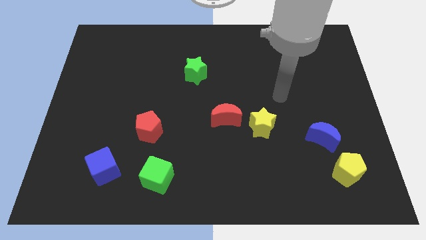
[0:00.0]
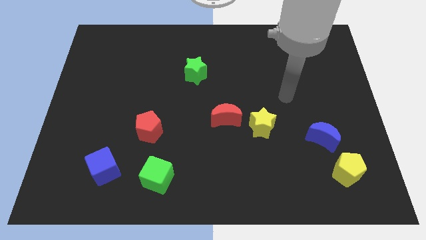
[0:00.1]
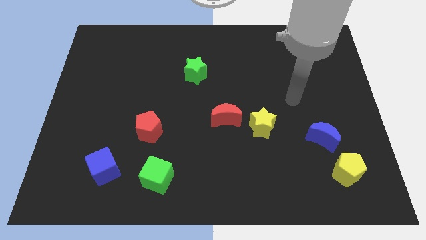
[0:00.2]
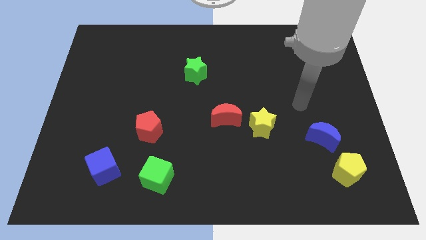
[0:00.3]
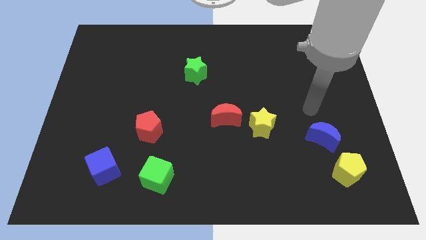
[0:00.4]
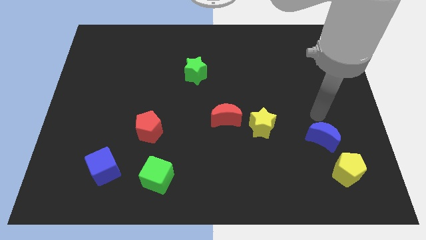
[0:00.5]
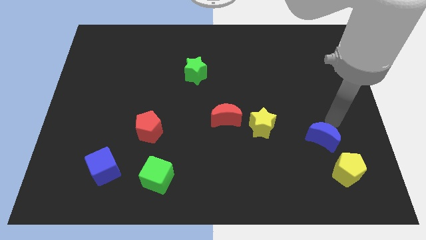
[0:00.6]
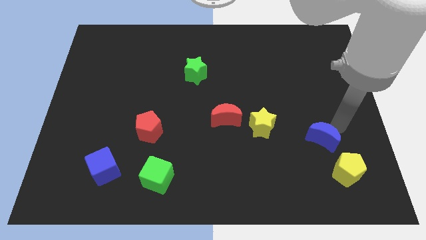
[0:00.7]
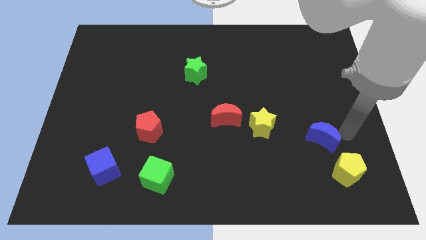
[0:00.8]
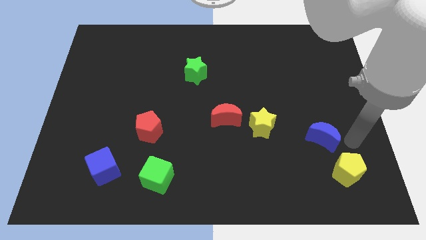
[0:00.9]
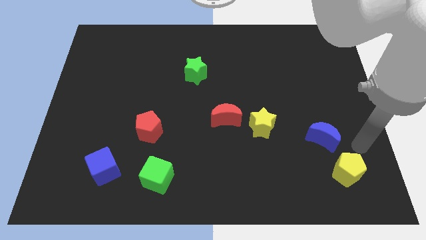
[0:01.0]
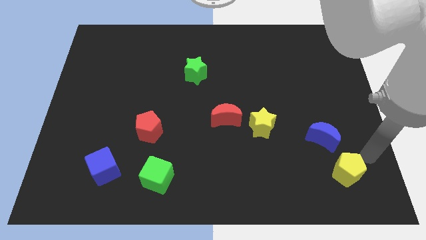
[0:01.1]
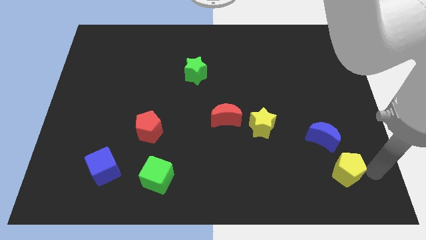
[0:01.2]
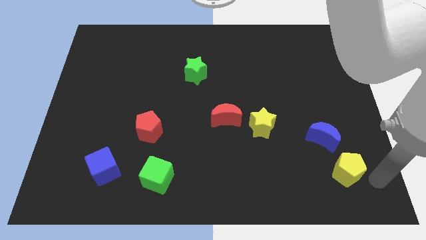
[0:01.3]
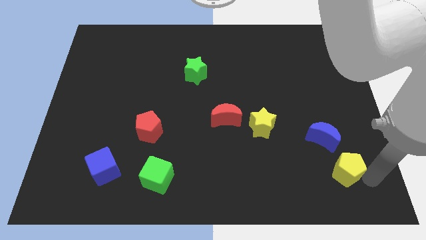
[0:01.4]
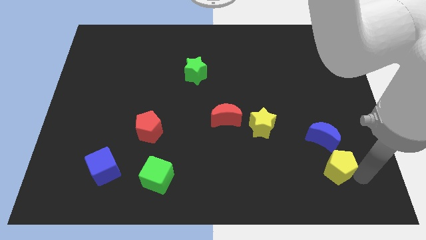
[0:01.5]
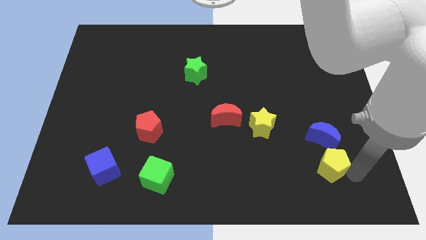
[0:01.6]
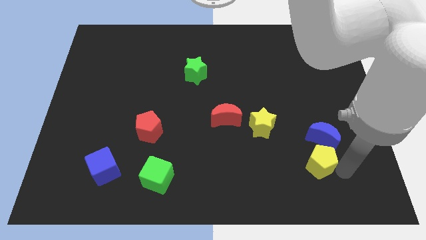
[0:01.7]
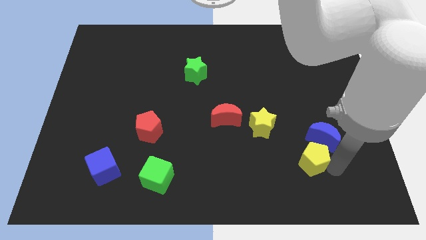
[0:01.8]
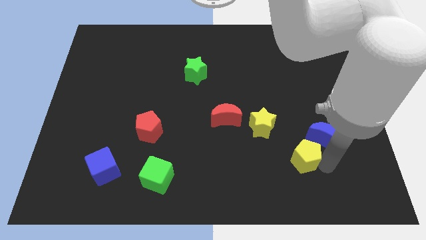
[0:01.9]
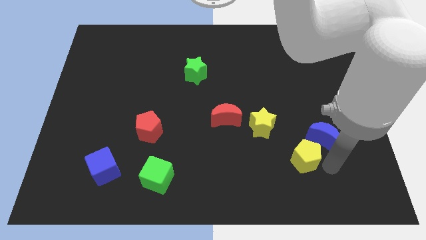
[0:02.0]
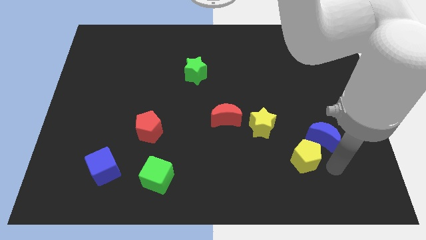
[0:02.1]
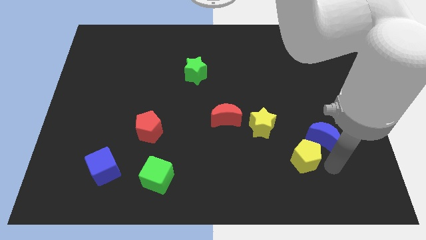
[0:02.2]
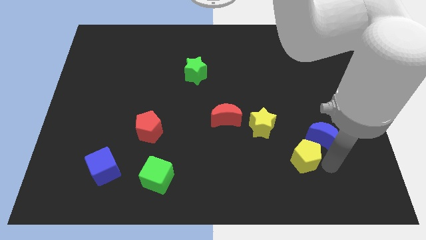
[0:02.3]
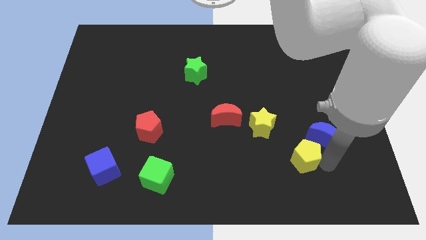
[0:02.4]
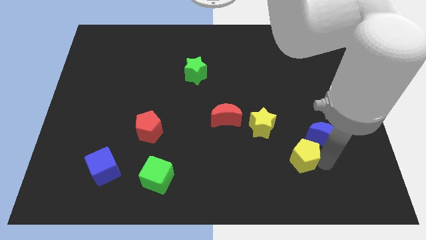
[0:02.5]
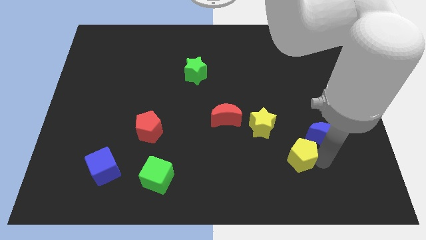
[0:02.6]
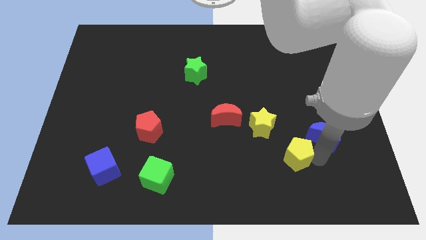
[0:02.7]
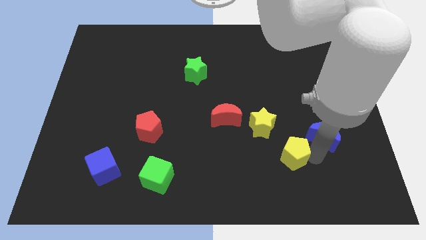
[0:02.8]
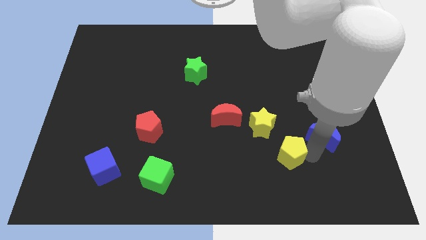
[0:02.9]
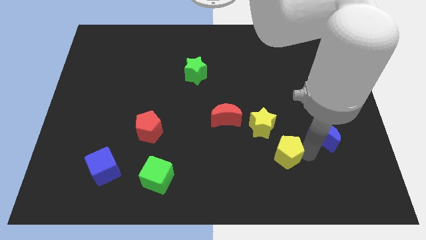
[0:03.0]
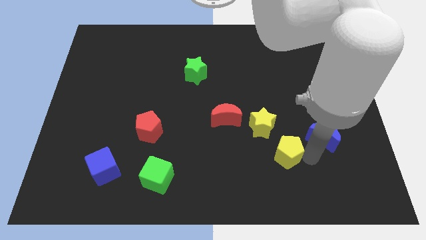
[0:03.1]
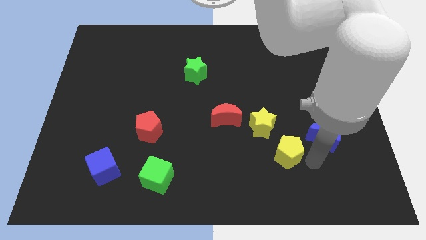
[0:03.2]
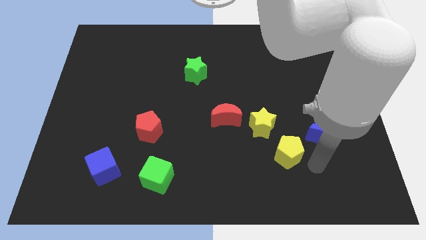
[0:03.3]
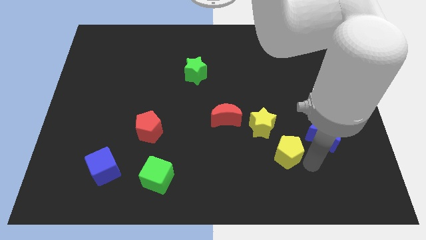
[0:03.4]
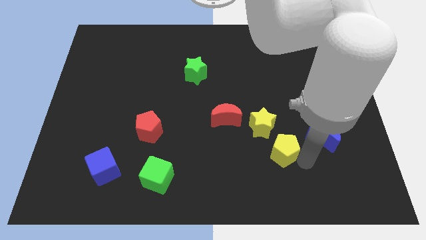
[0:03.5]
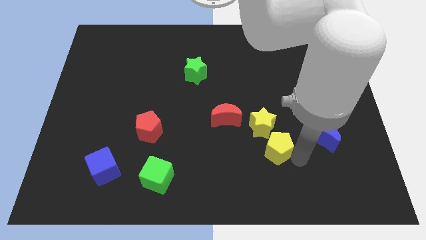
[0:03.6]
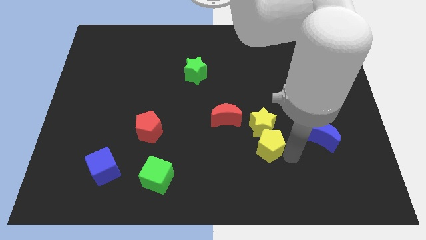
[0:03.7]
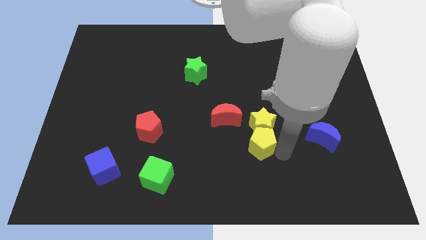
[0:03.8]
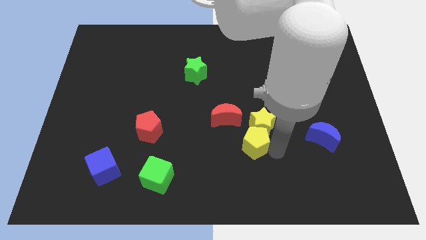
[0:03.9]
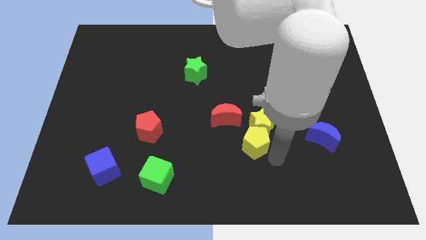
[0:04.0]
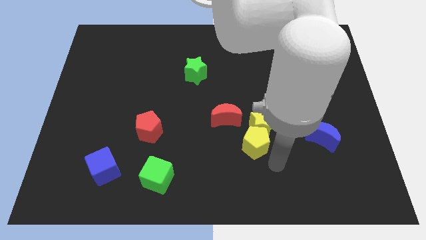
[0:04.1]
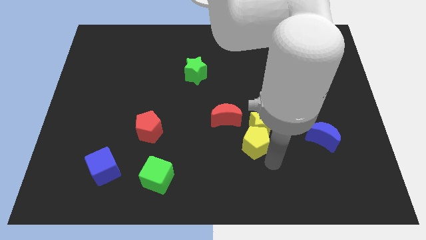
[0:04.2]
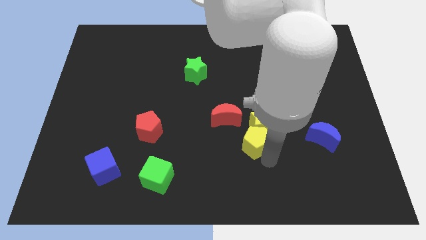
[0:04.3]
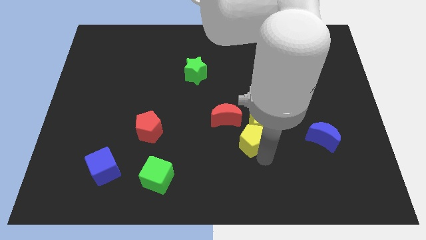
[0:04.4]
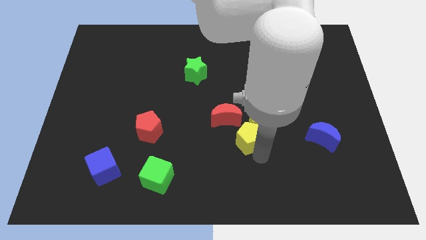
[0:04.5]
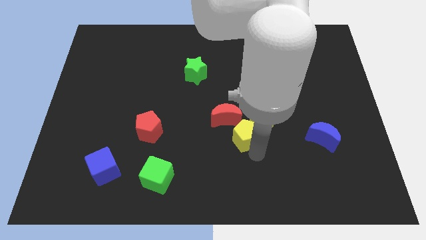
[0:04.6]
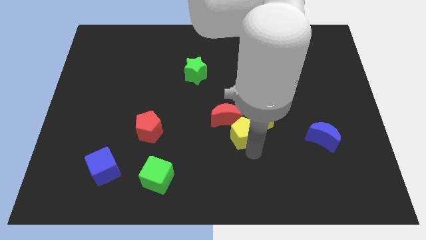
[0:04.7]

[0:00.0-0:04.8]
put the yellow pentagon close to the red moon

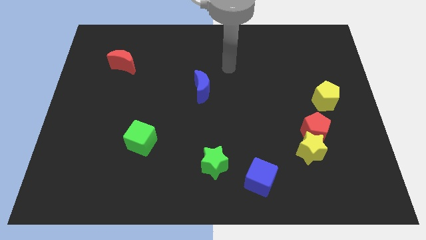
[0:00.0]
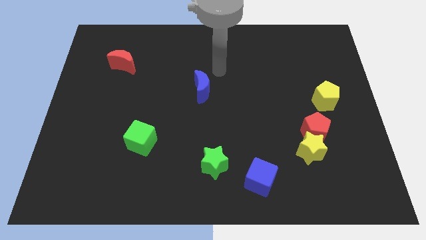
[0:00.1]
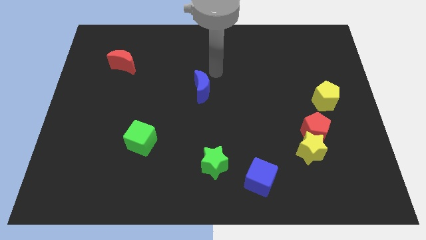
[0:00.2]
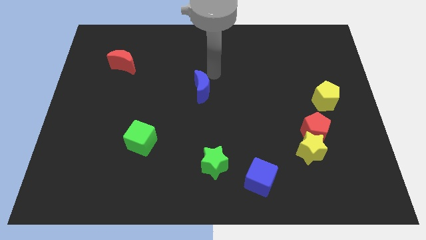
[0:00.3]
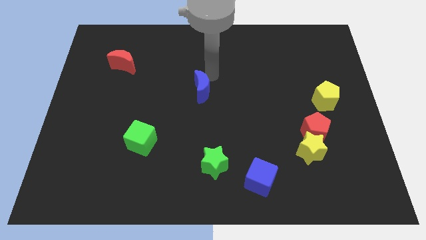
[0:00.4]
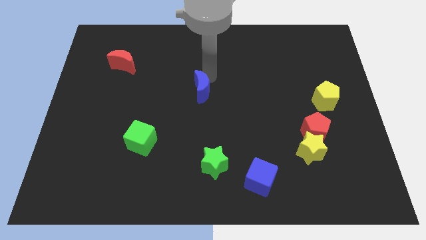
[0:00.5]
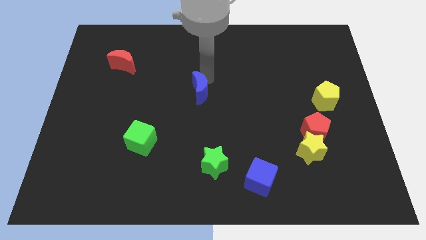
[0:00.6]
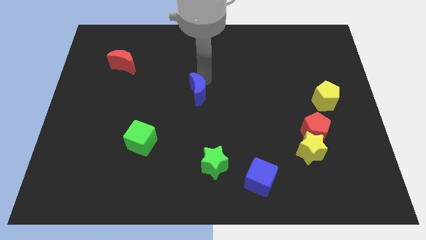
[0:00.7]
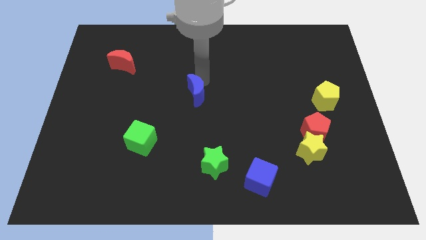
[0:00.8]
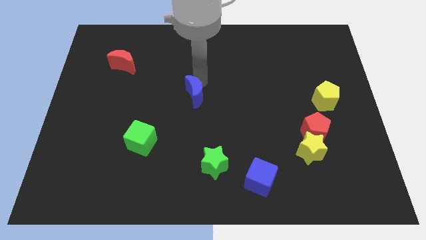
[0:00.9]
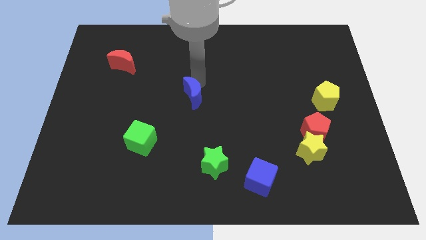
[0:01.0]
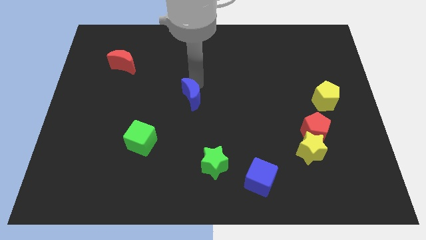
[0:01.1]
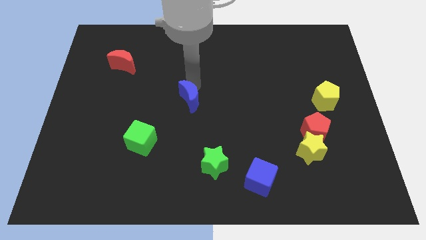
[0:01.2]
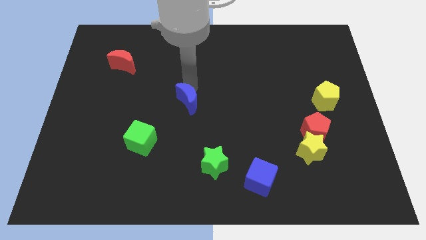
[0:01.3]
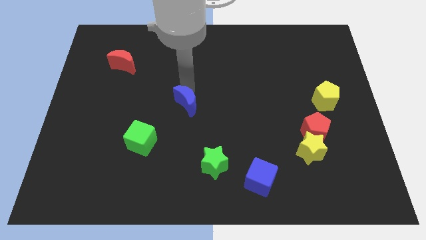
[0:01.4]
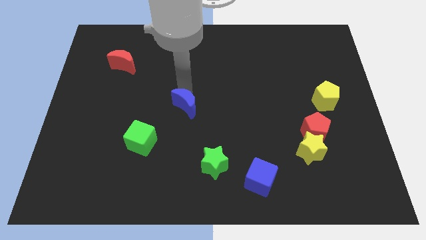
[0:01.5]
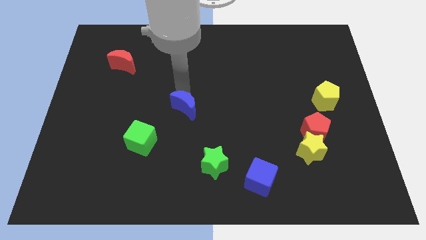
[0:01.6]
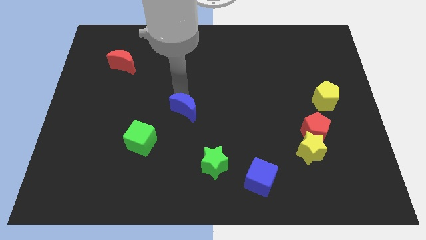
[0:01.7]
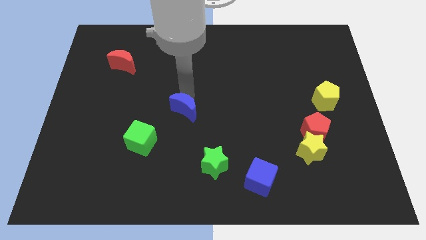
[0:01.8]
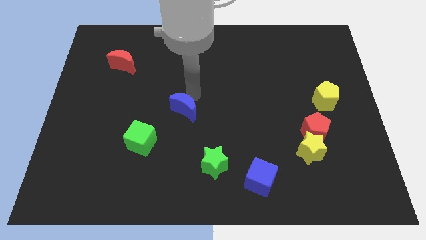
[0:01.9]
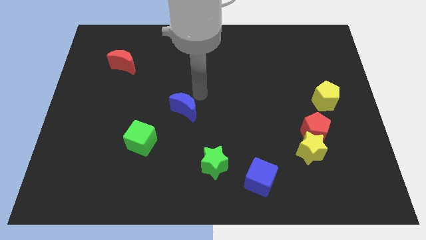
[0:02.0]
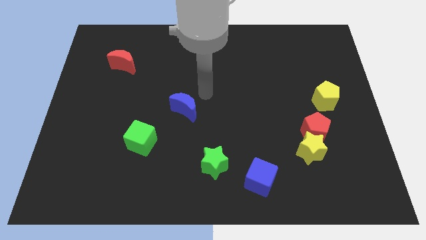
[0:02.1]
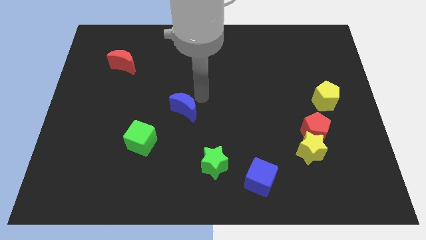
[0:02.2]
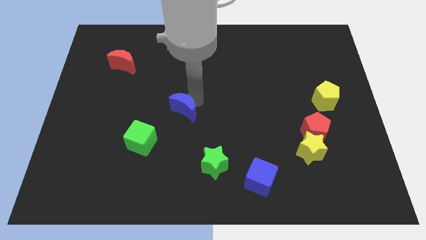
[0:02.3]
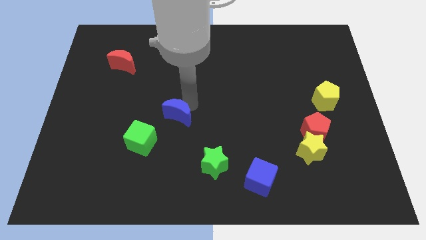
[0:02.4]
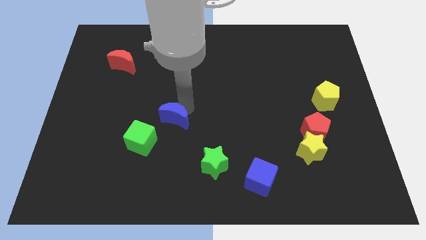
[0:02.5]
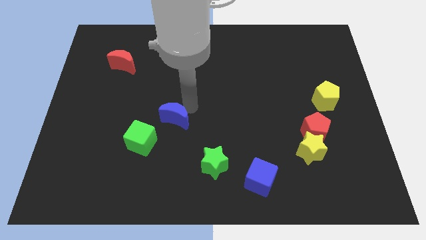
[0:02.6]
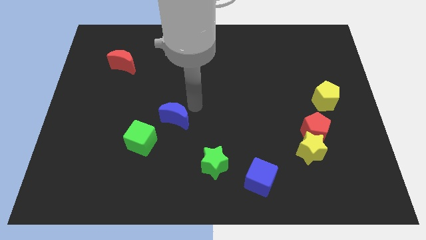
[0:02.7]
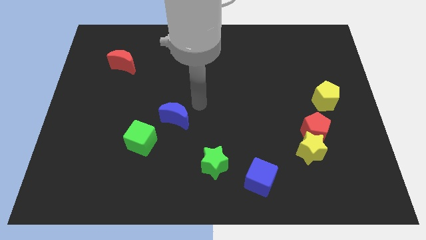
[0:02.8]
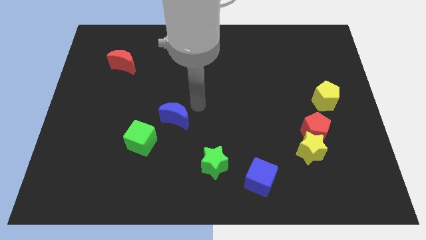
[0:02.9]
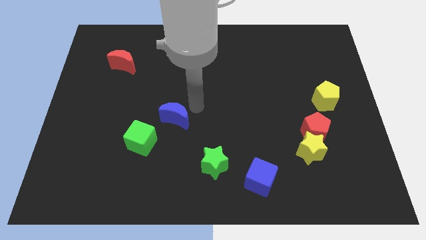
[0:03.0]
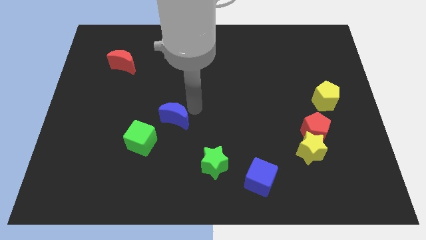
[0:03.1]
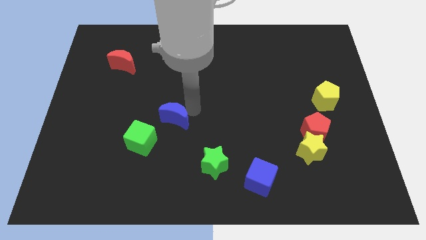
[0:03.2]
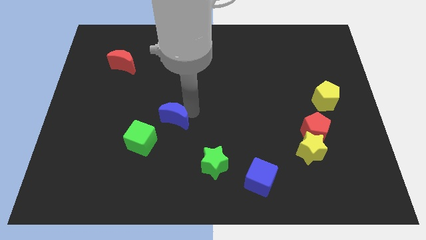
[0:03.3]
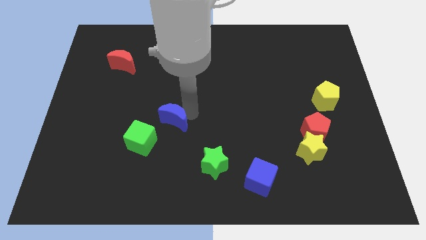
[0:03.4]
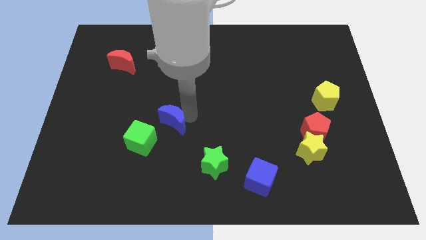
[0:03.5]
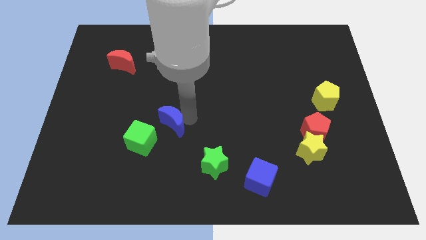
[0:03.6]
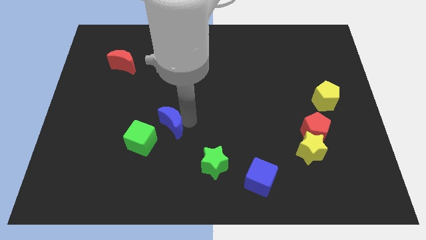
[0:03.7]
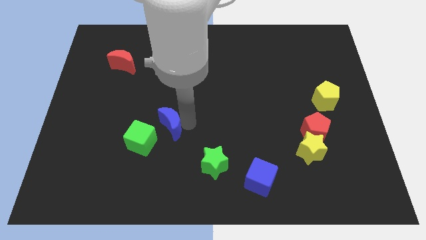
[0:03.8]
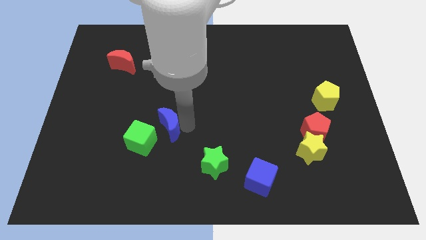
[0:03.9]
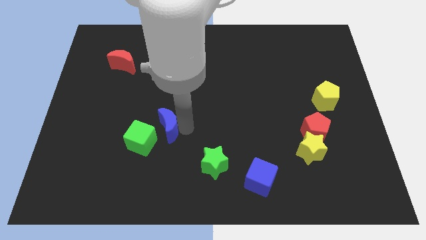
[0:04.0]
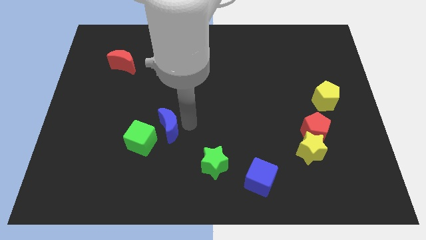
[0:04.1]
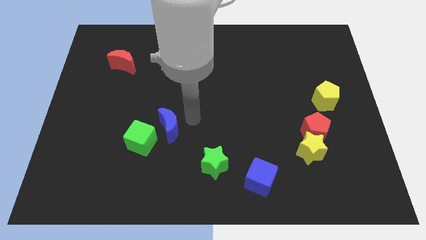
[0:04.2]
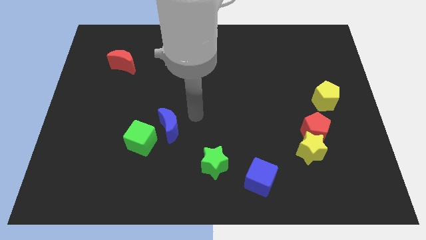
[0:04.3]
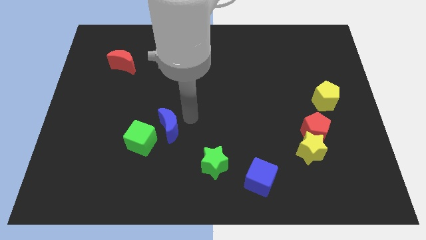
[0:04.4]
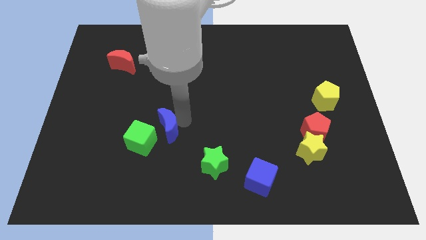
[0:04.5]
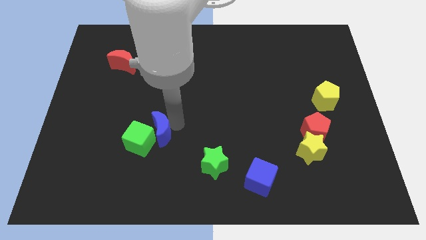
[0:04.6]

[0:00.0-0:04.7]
move the blue moon towards the green cube
